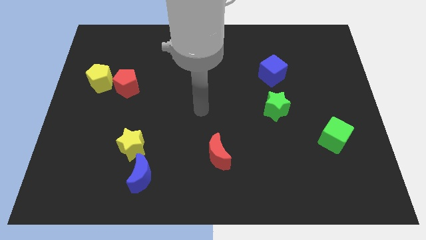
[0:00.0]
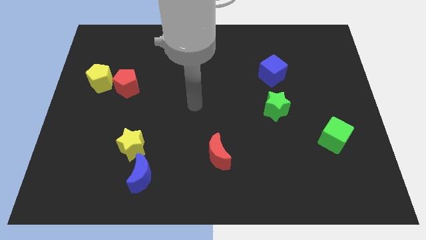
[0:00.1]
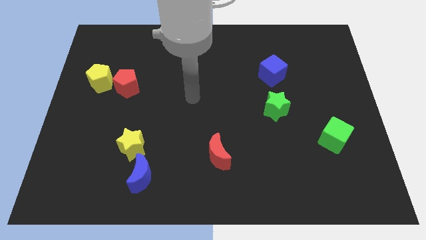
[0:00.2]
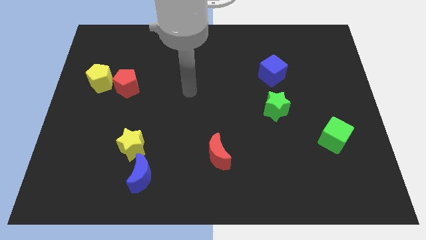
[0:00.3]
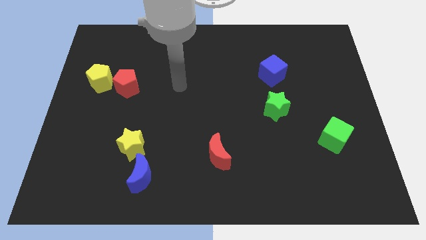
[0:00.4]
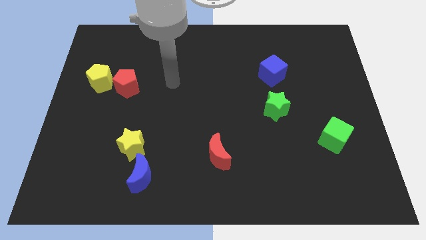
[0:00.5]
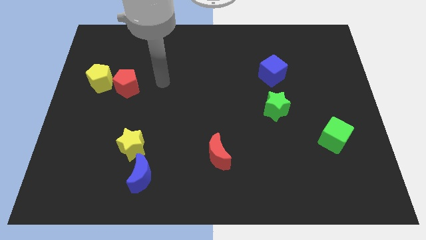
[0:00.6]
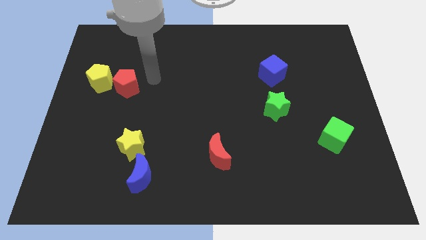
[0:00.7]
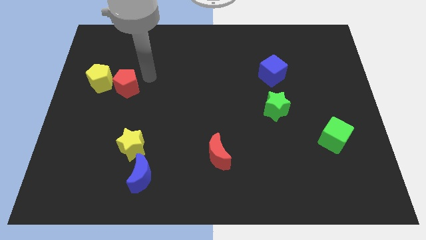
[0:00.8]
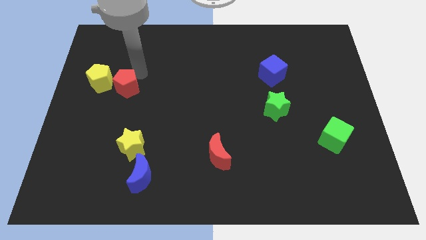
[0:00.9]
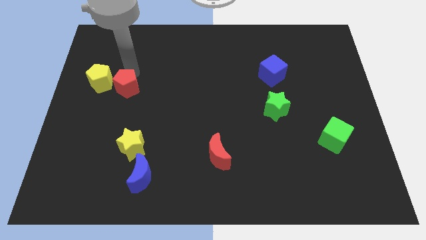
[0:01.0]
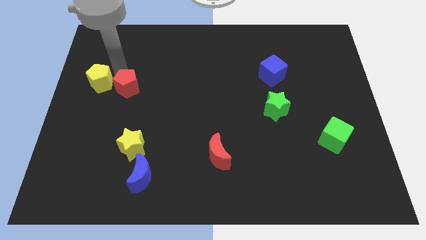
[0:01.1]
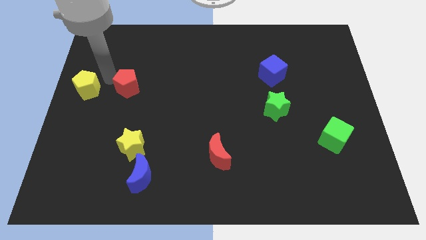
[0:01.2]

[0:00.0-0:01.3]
pull the red pentagon apart from the yellow pentagon

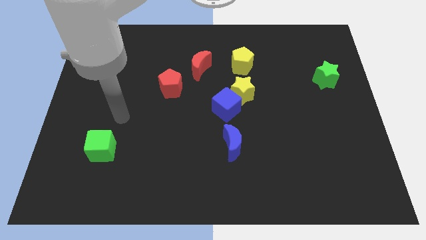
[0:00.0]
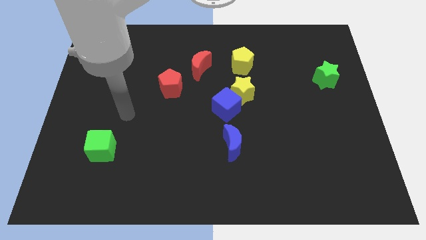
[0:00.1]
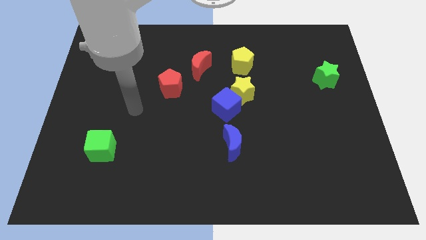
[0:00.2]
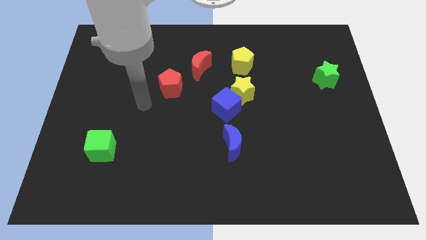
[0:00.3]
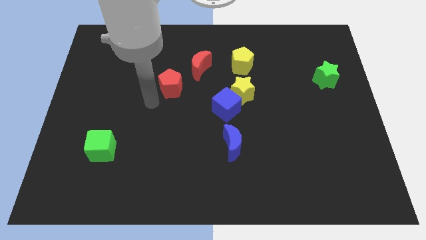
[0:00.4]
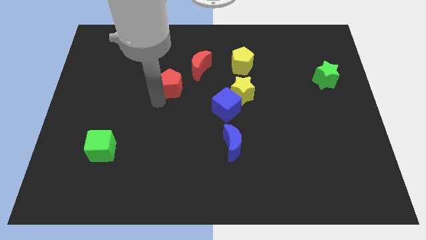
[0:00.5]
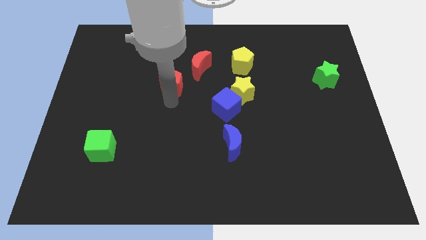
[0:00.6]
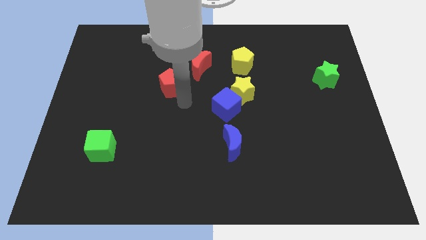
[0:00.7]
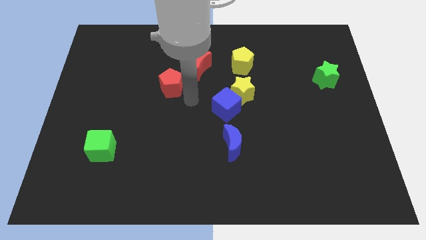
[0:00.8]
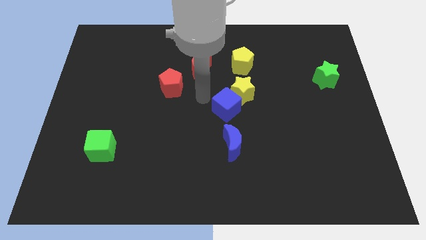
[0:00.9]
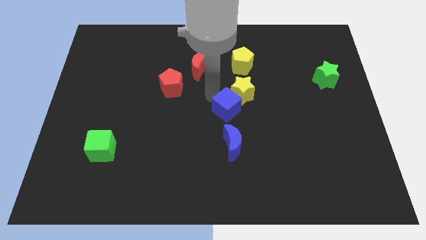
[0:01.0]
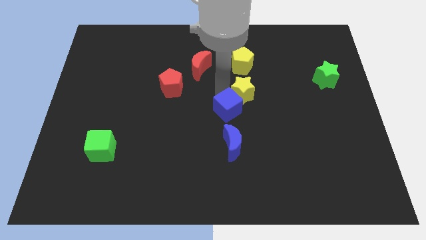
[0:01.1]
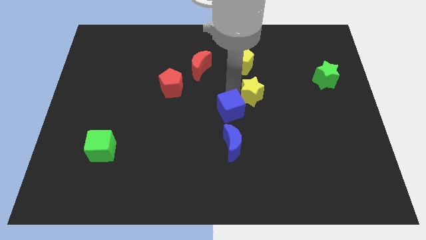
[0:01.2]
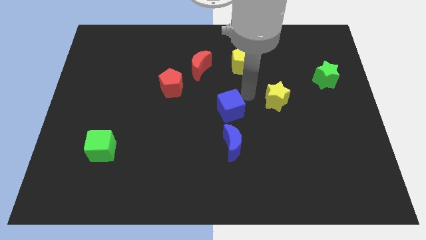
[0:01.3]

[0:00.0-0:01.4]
separate the blue cube from the yellow star

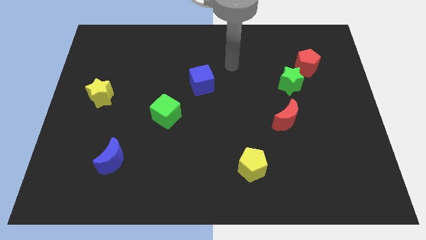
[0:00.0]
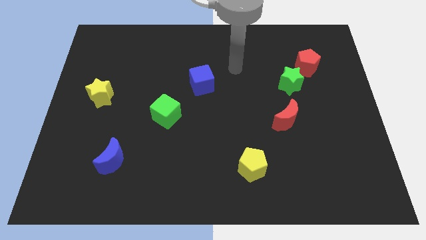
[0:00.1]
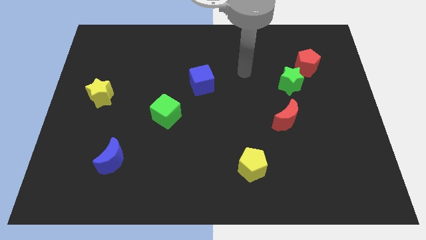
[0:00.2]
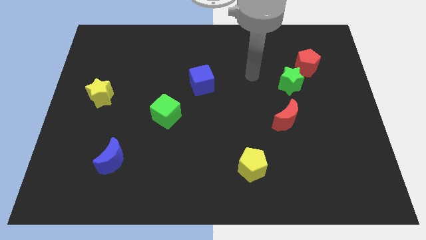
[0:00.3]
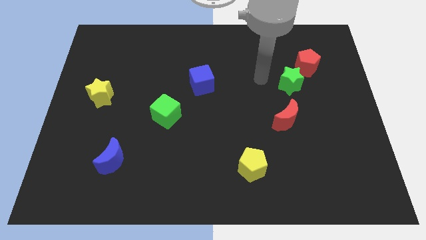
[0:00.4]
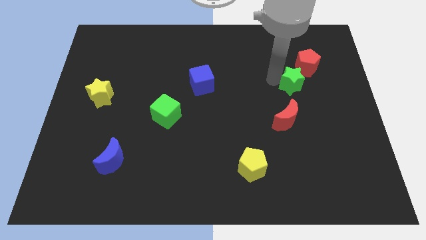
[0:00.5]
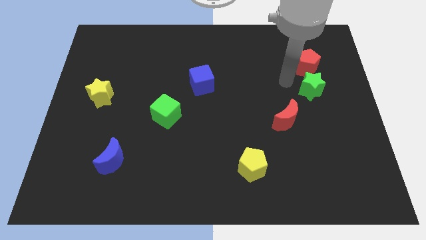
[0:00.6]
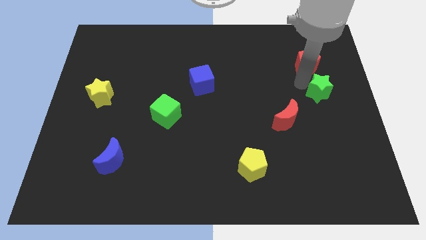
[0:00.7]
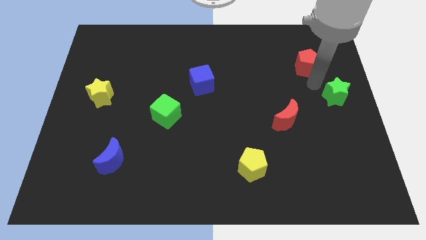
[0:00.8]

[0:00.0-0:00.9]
move the red pentagon away from the green star

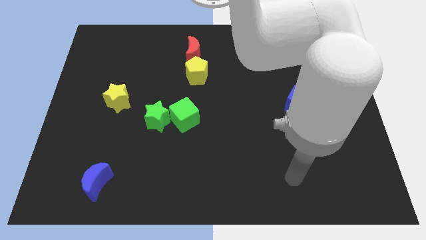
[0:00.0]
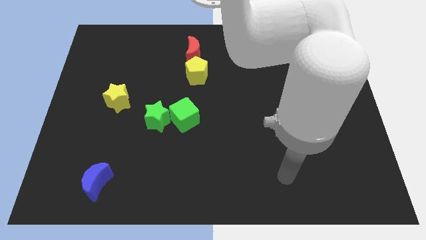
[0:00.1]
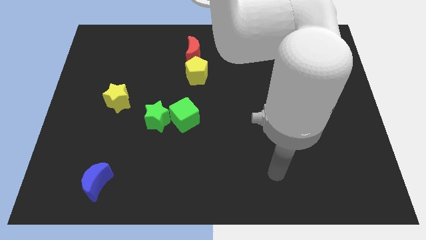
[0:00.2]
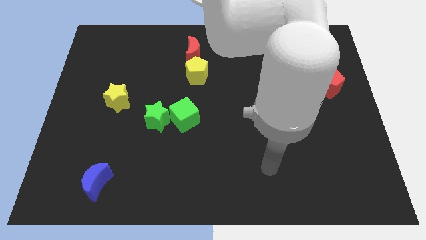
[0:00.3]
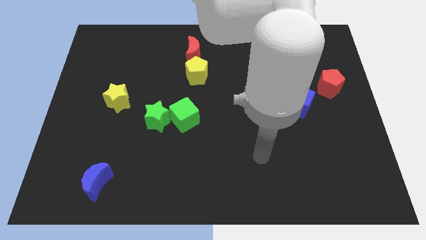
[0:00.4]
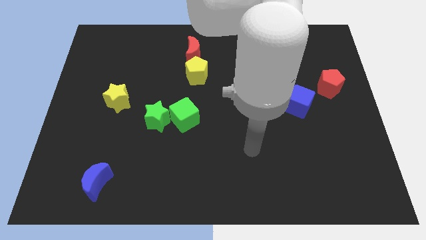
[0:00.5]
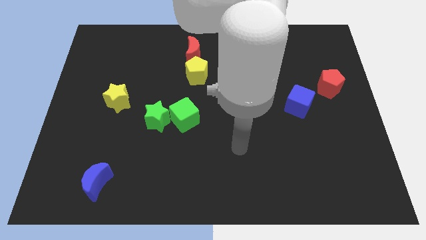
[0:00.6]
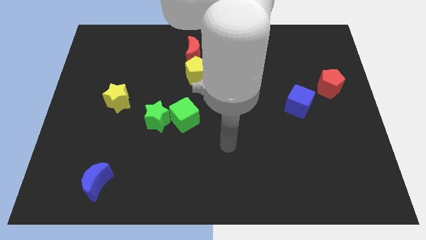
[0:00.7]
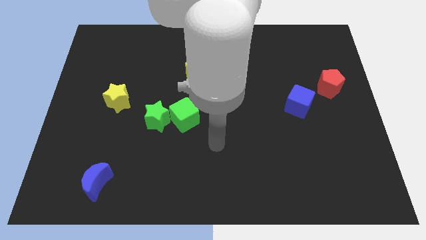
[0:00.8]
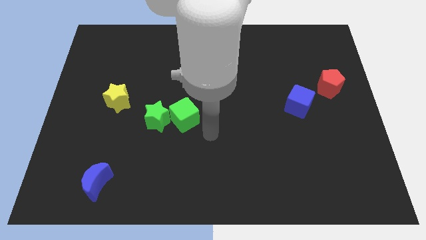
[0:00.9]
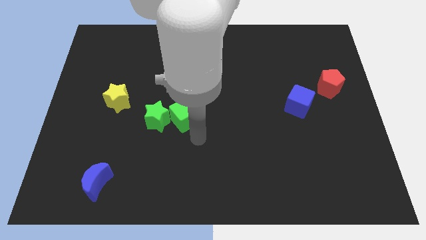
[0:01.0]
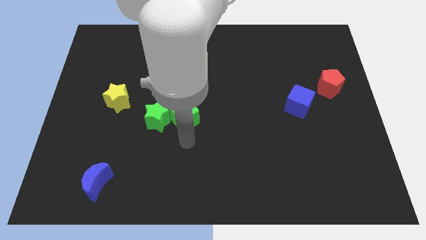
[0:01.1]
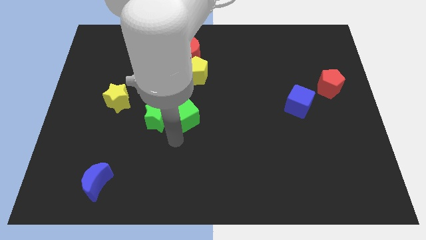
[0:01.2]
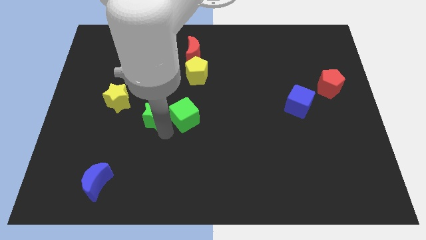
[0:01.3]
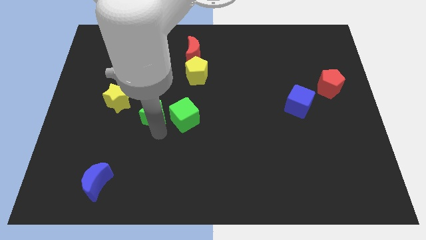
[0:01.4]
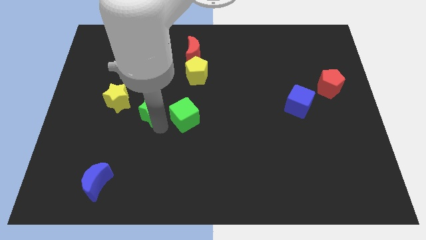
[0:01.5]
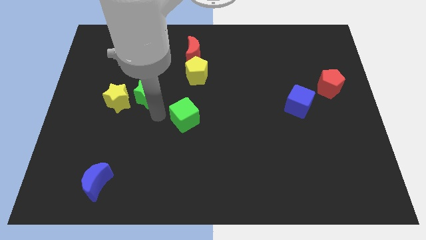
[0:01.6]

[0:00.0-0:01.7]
separate the green cube from the green star

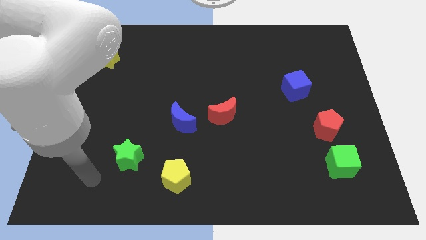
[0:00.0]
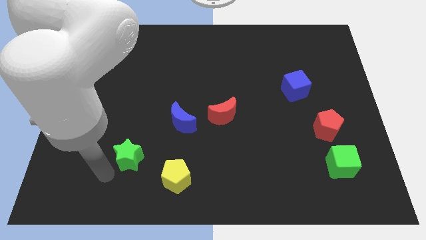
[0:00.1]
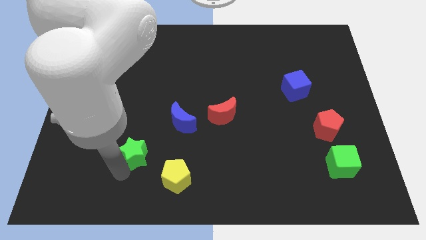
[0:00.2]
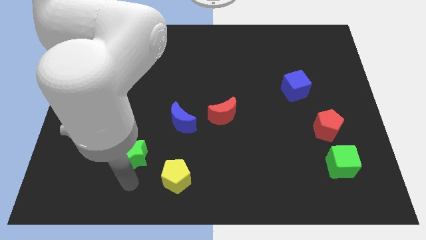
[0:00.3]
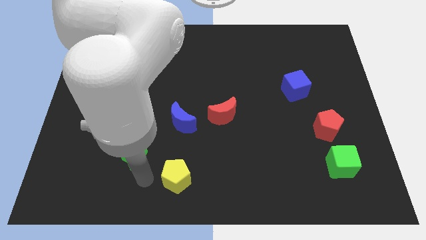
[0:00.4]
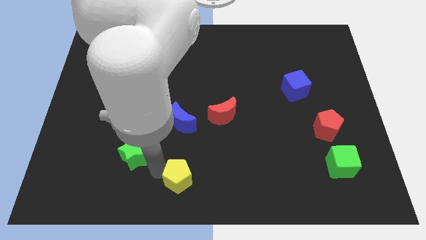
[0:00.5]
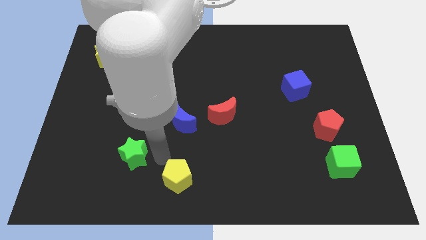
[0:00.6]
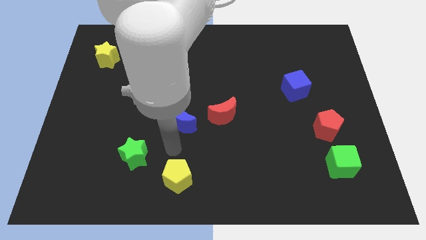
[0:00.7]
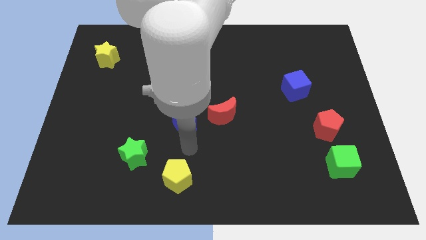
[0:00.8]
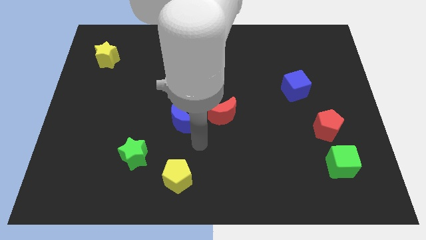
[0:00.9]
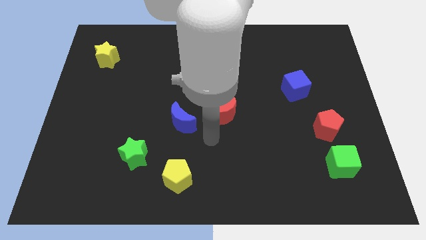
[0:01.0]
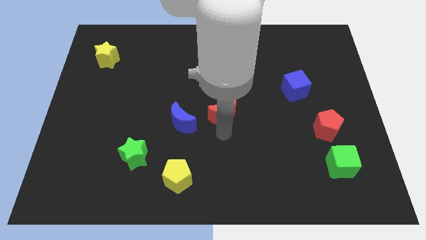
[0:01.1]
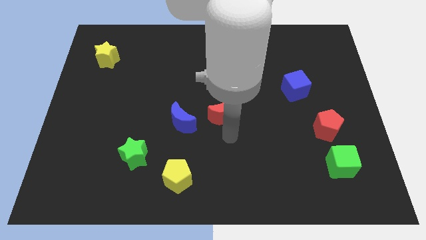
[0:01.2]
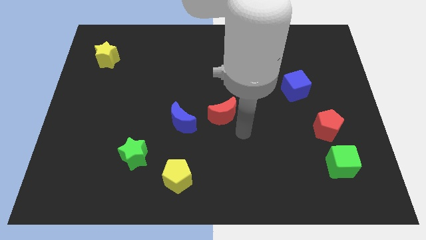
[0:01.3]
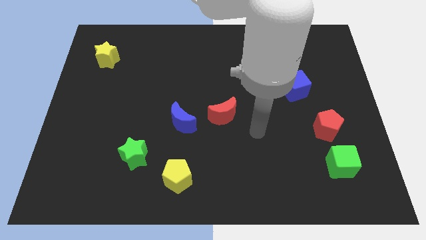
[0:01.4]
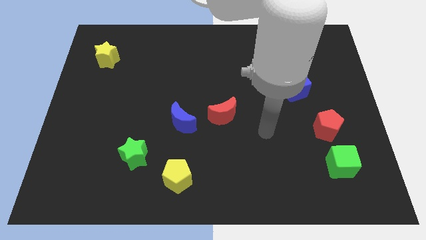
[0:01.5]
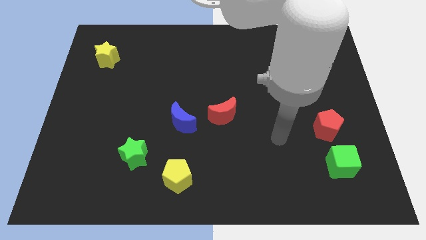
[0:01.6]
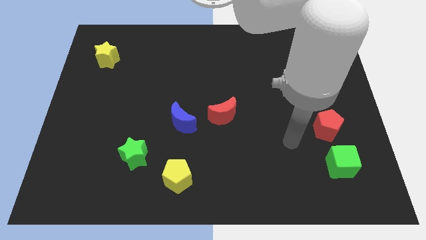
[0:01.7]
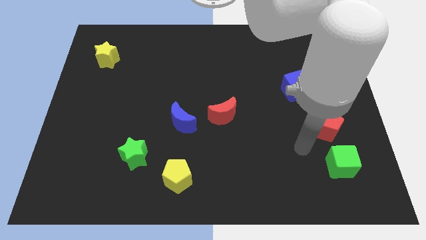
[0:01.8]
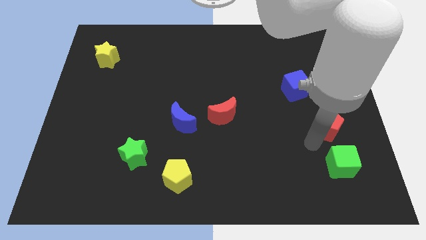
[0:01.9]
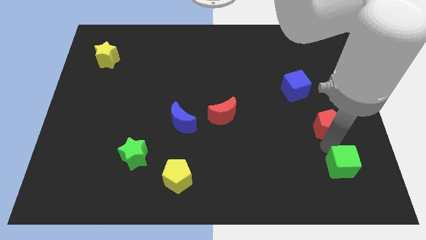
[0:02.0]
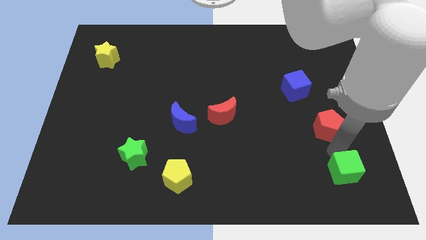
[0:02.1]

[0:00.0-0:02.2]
separate the red pentagon from the green cube

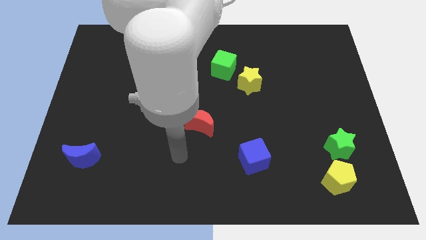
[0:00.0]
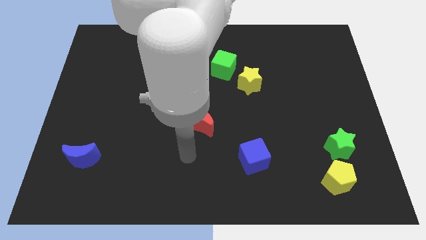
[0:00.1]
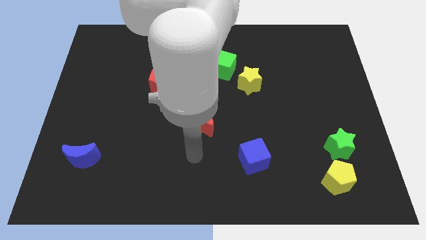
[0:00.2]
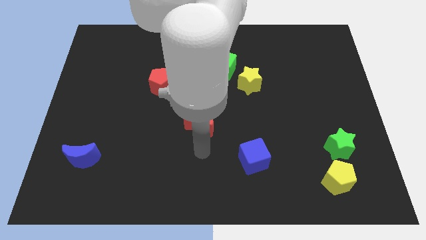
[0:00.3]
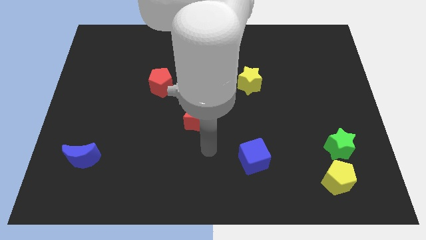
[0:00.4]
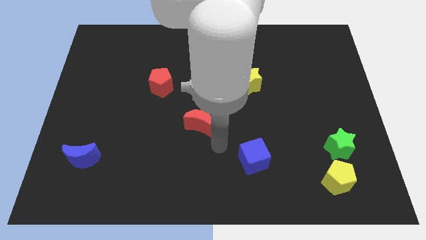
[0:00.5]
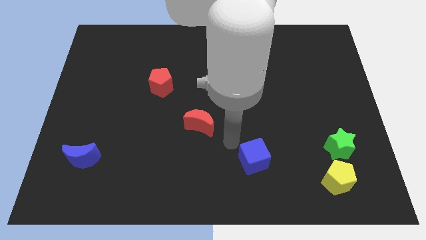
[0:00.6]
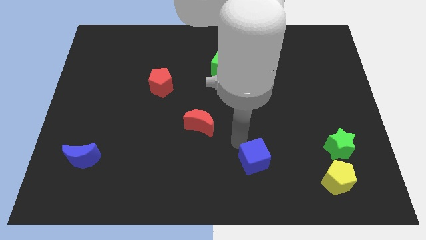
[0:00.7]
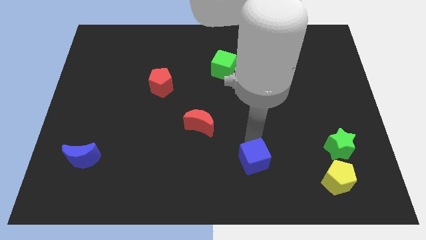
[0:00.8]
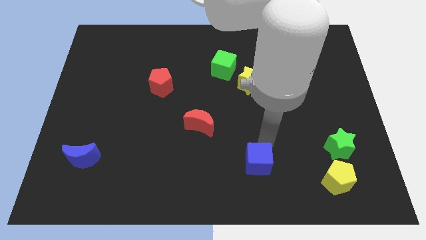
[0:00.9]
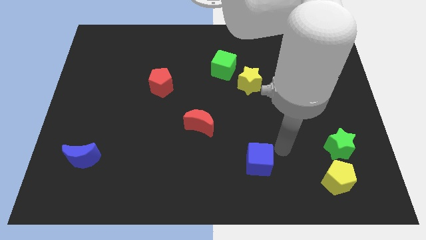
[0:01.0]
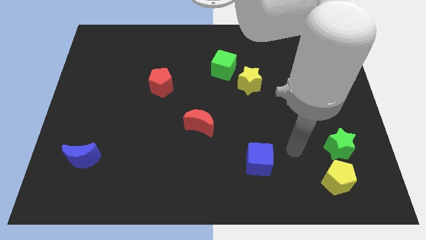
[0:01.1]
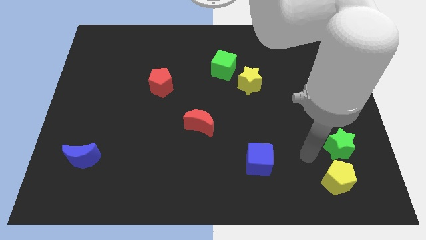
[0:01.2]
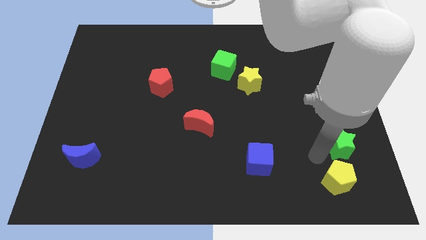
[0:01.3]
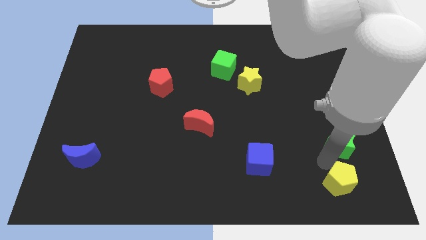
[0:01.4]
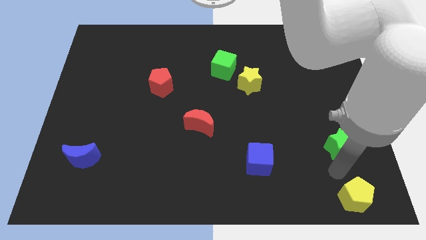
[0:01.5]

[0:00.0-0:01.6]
move the green star away from the yellow pentagon

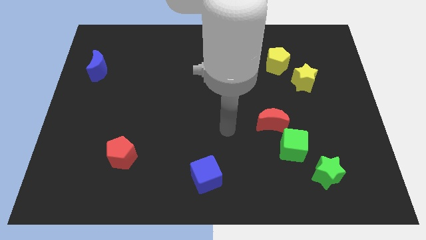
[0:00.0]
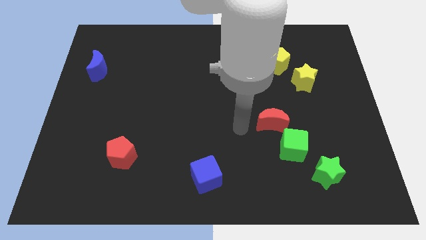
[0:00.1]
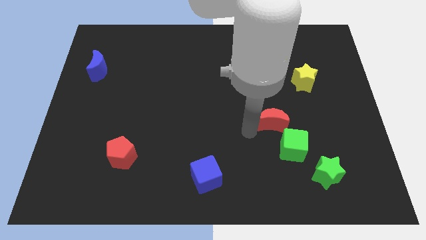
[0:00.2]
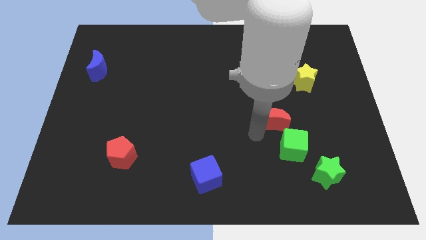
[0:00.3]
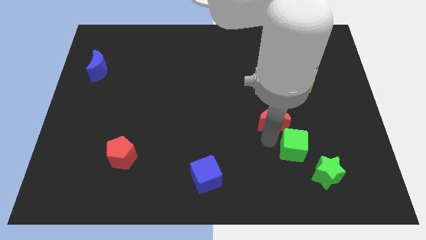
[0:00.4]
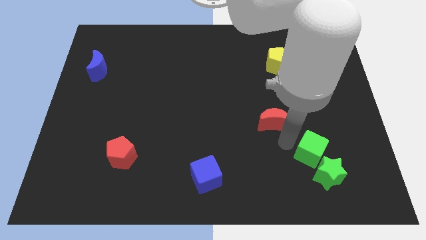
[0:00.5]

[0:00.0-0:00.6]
pull the red moon apart from the green cube
